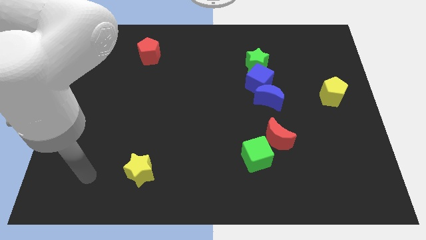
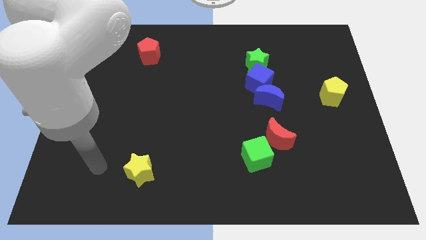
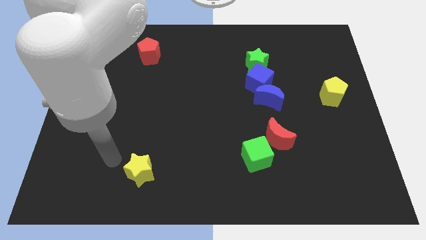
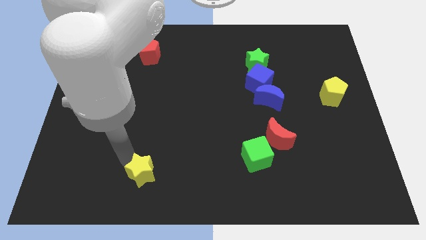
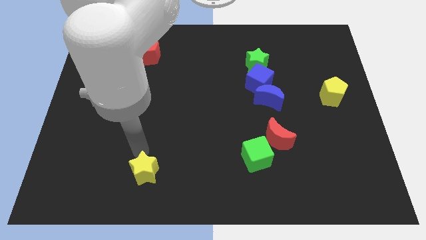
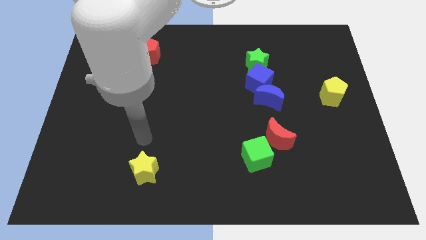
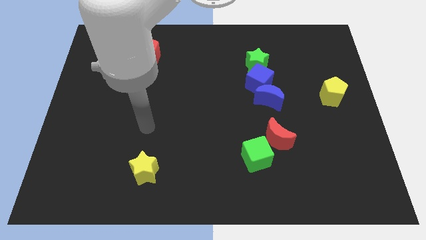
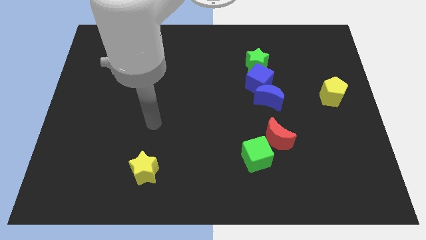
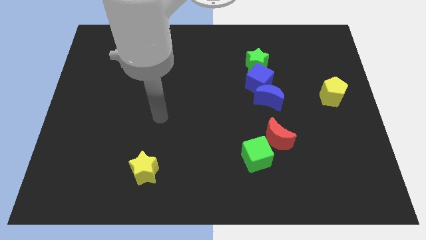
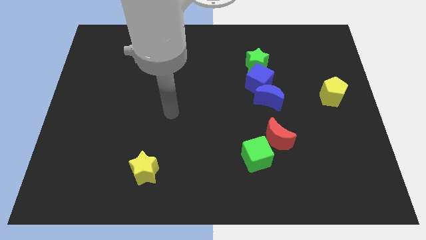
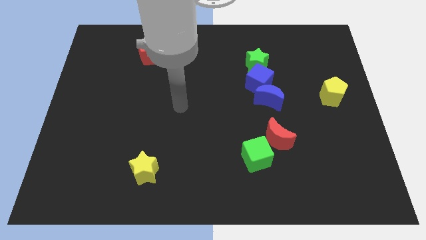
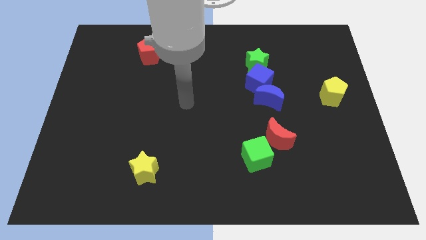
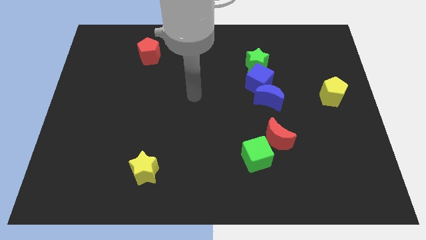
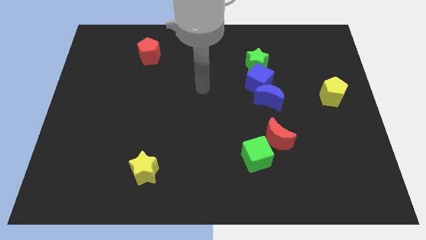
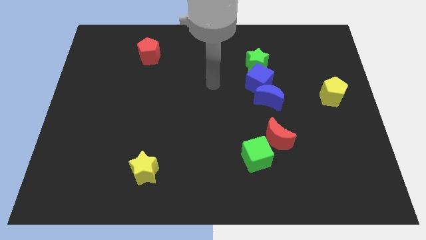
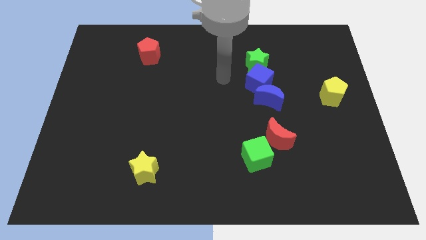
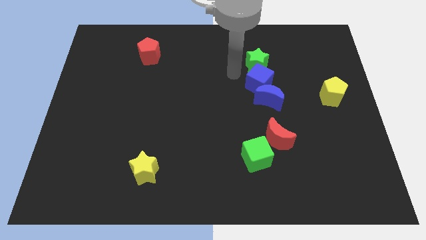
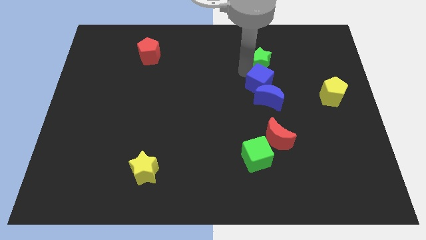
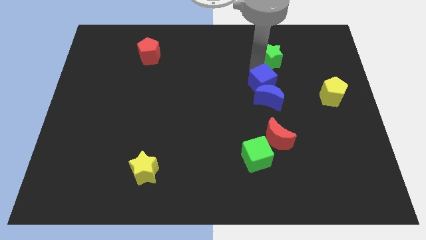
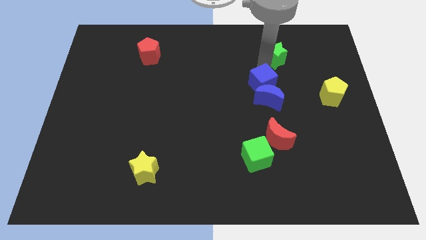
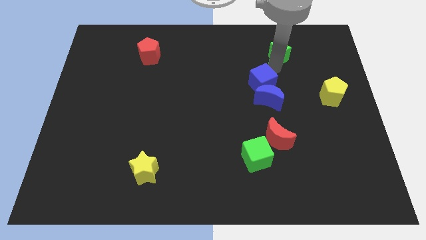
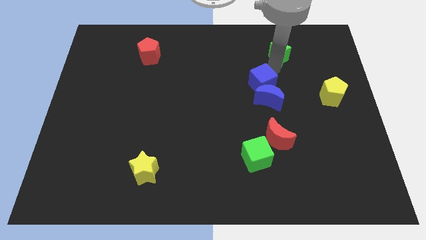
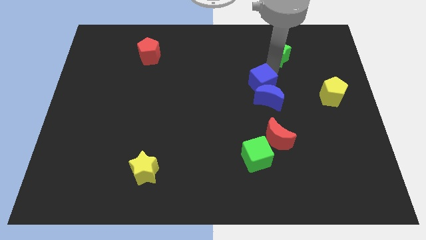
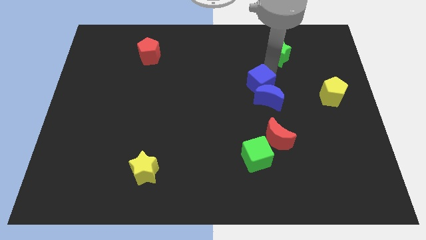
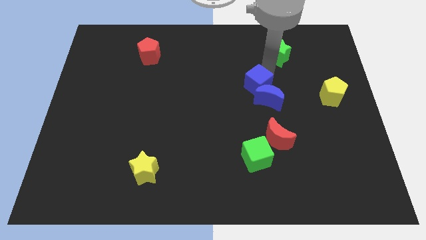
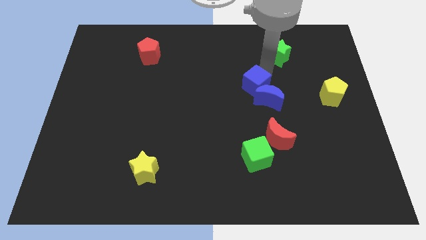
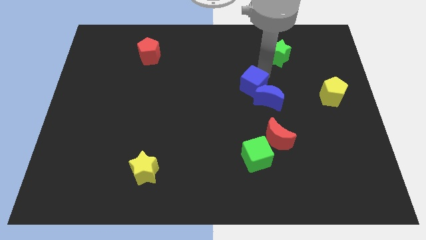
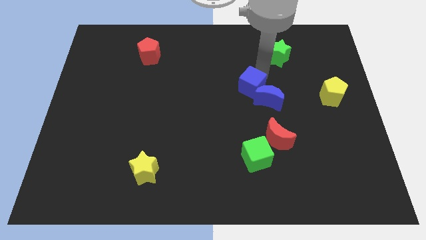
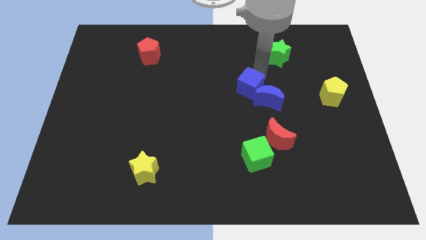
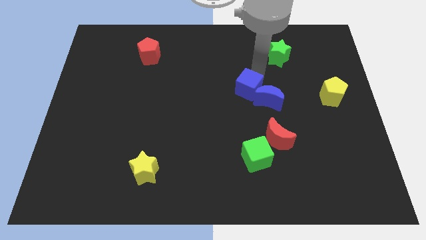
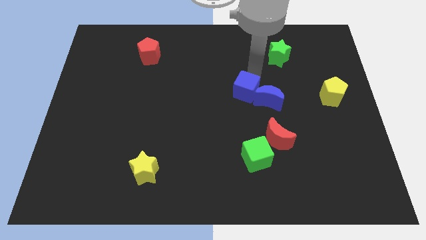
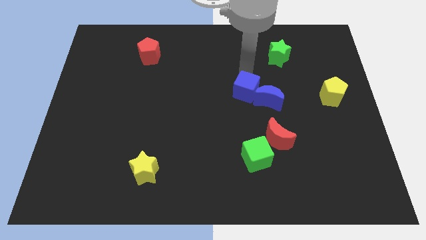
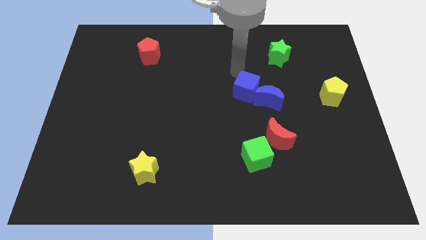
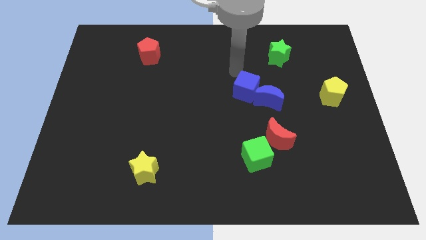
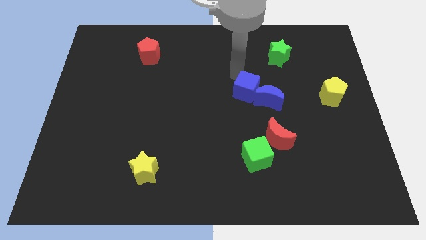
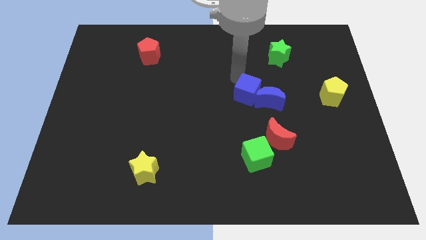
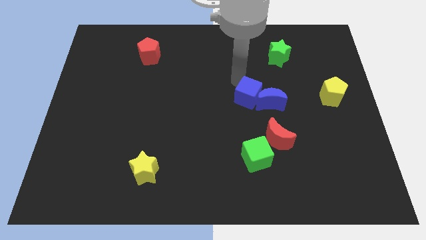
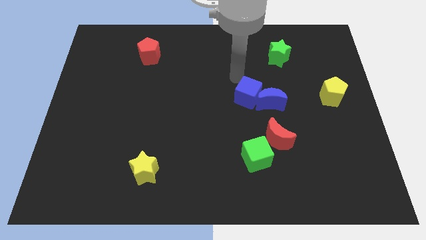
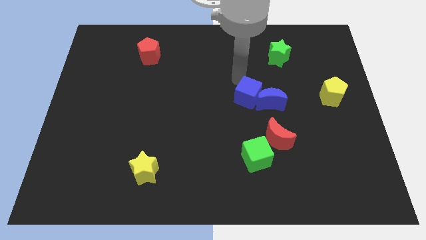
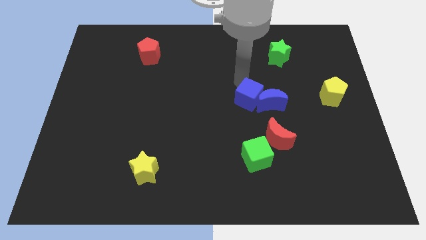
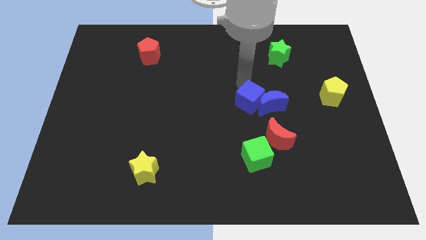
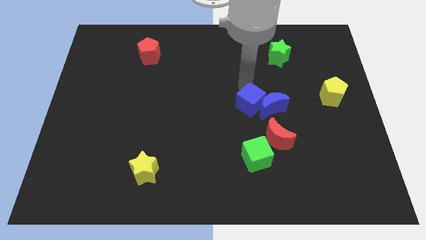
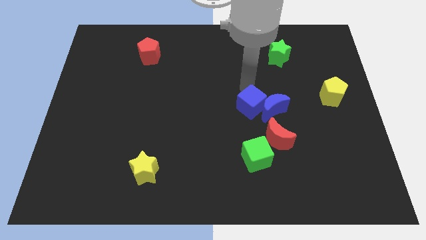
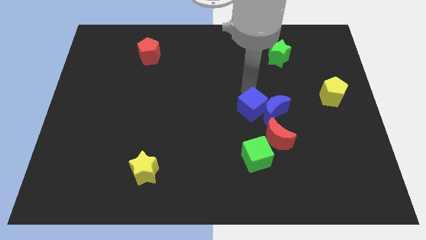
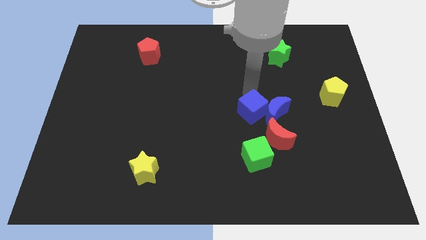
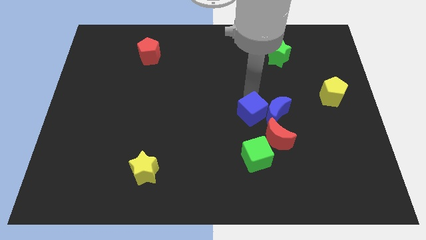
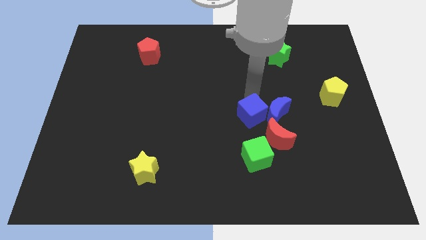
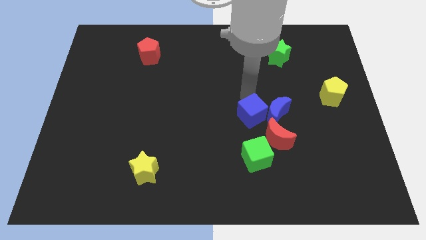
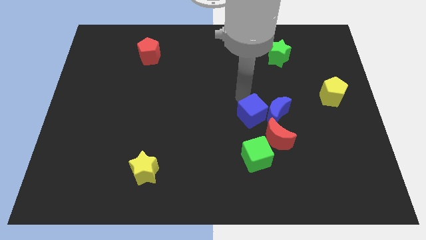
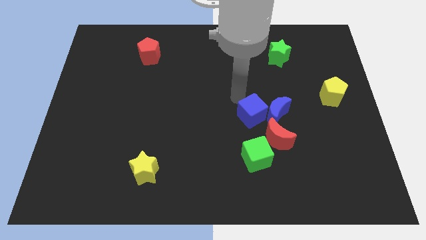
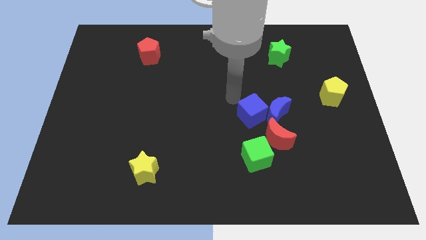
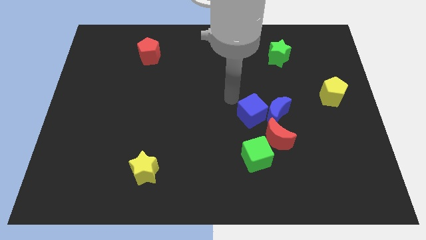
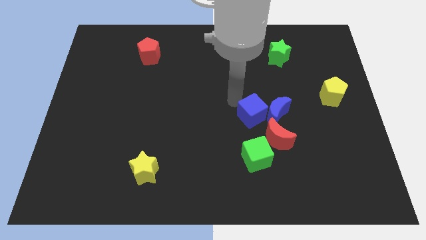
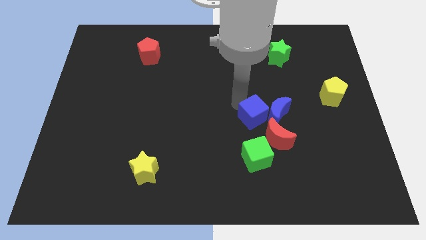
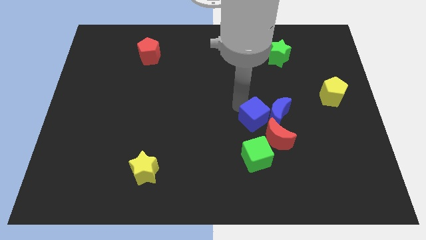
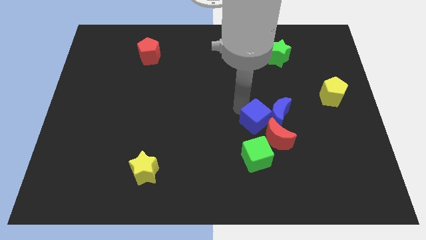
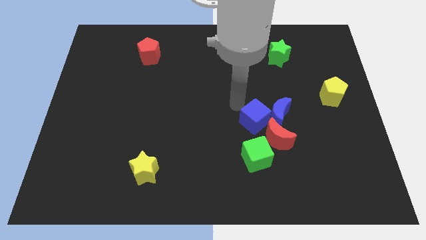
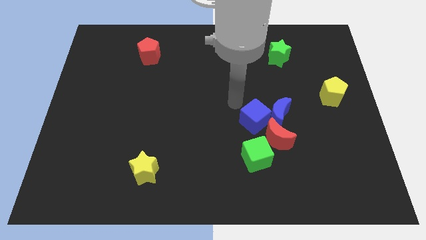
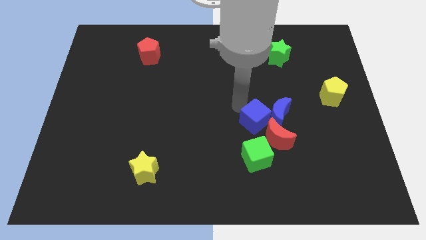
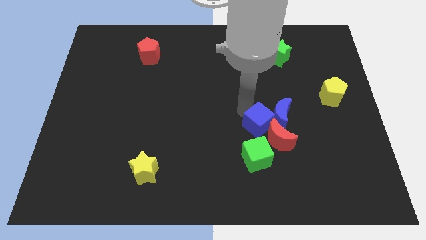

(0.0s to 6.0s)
put the blue cube to the red moon
